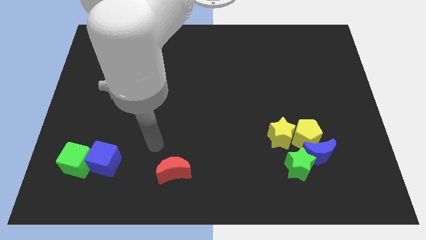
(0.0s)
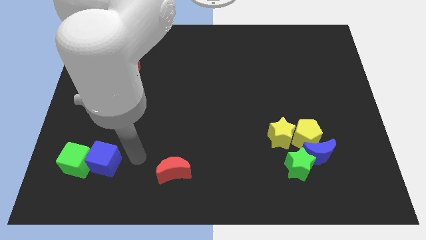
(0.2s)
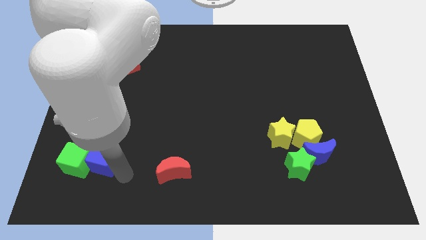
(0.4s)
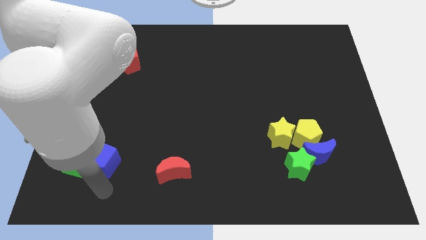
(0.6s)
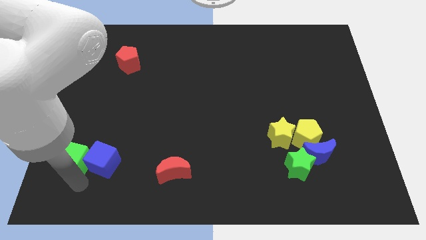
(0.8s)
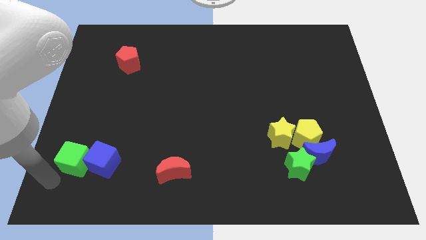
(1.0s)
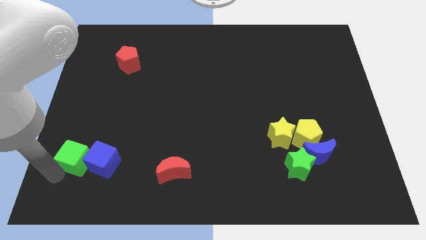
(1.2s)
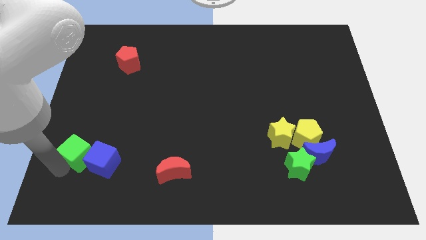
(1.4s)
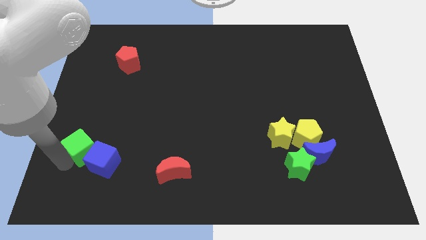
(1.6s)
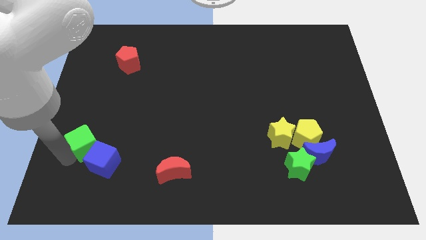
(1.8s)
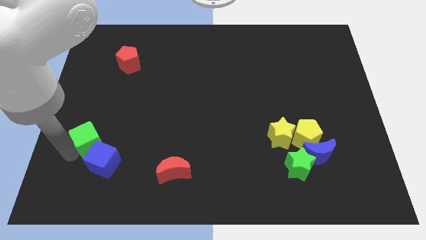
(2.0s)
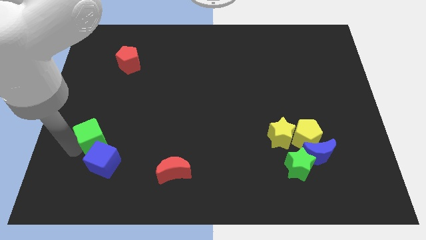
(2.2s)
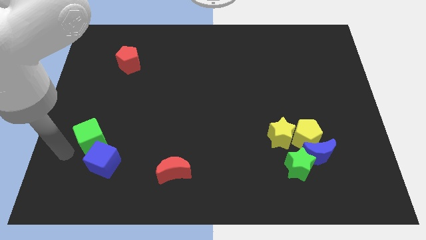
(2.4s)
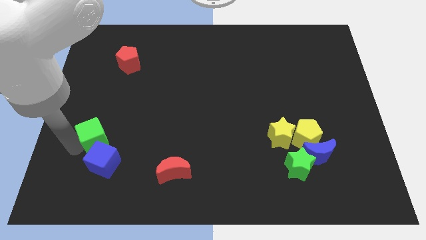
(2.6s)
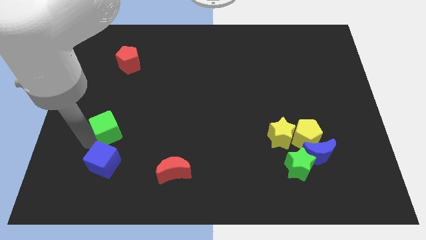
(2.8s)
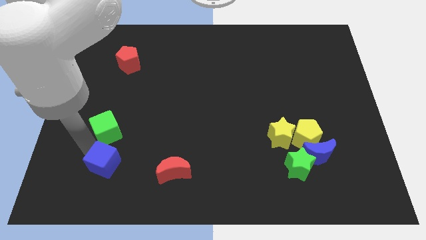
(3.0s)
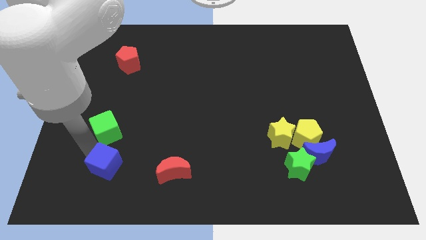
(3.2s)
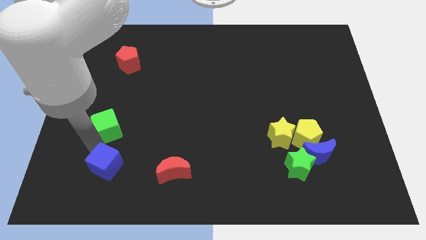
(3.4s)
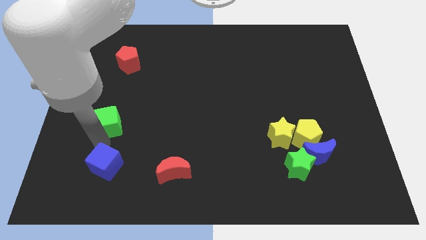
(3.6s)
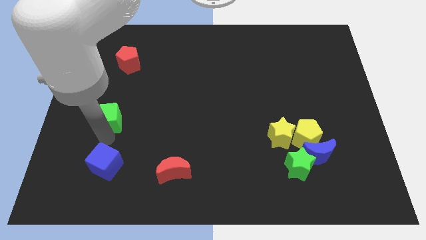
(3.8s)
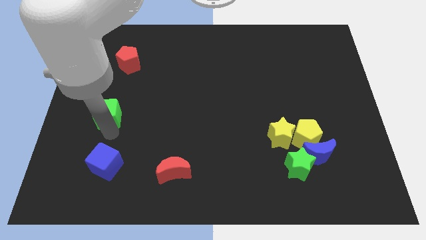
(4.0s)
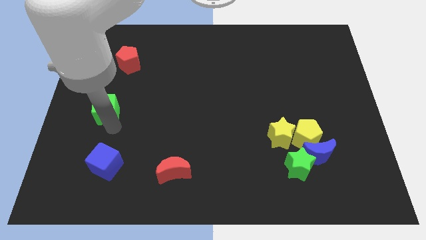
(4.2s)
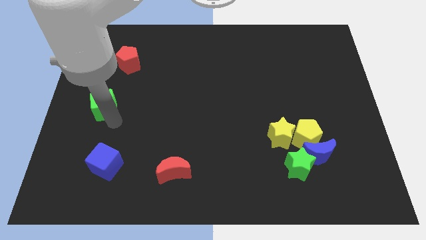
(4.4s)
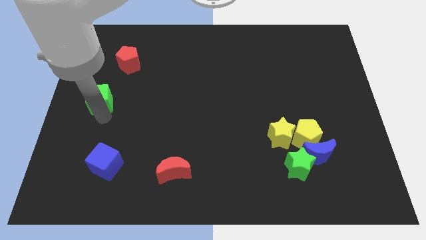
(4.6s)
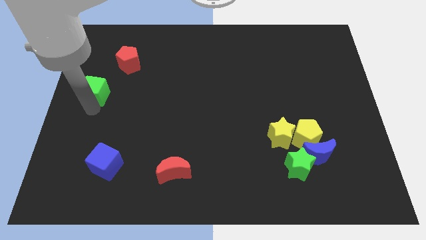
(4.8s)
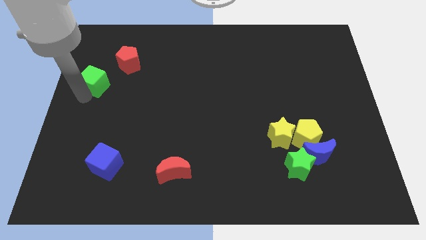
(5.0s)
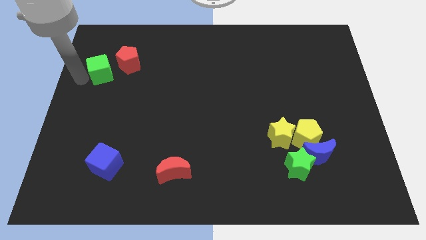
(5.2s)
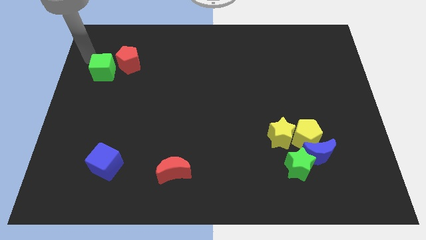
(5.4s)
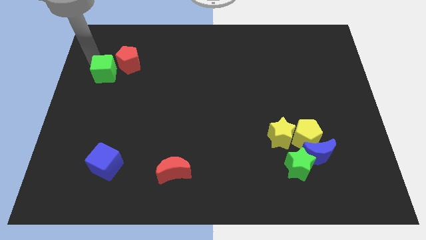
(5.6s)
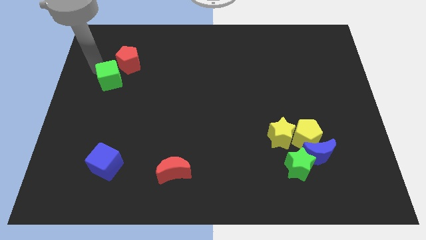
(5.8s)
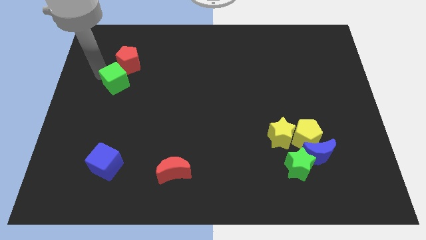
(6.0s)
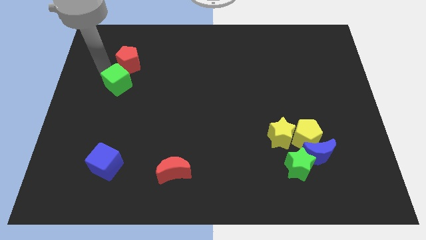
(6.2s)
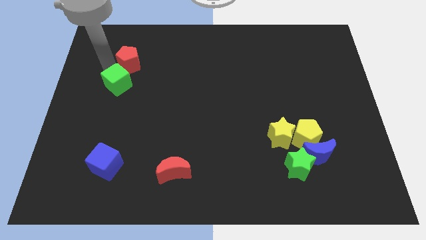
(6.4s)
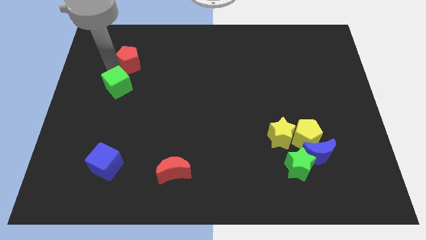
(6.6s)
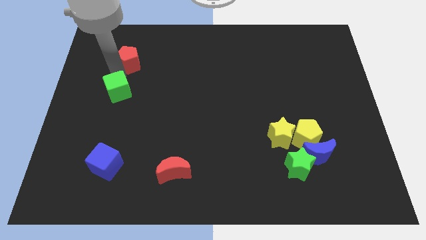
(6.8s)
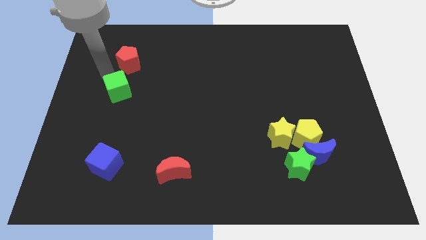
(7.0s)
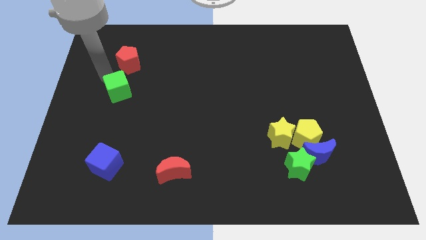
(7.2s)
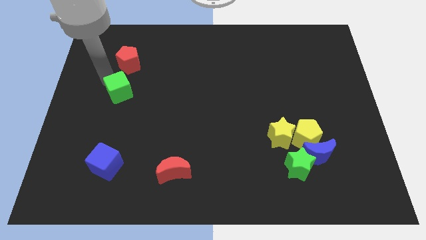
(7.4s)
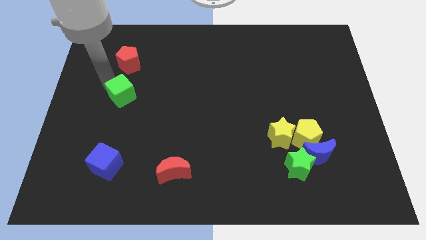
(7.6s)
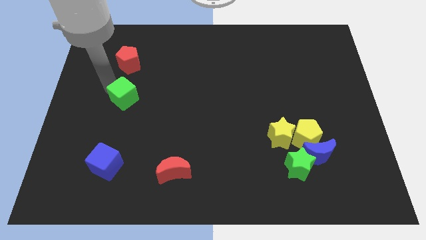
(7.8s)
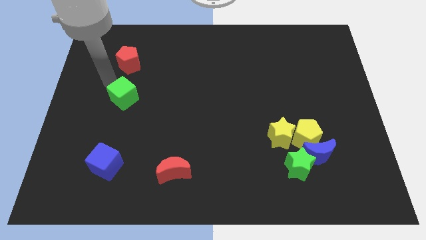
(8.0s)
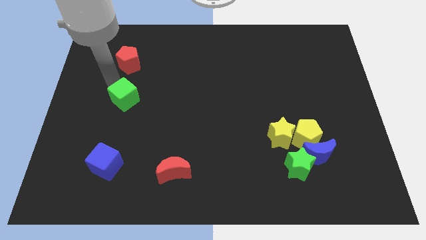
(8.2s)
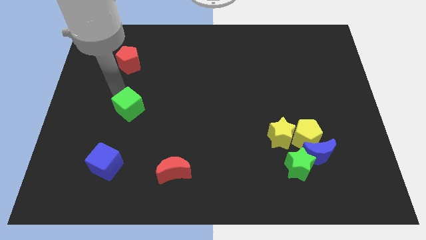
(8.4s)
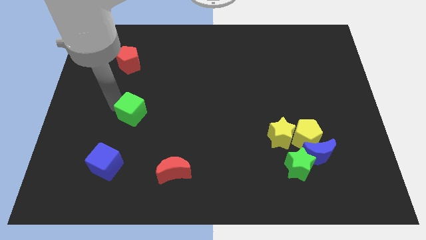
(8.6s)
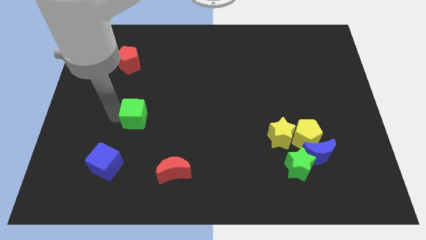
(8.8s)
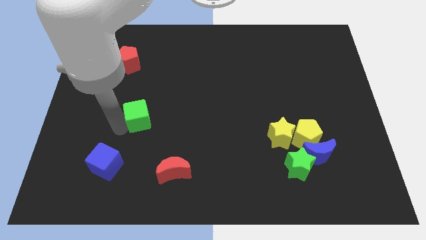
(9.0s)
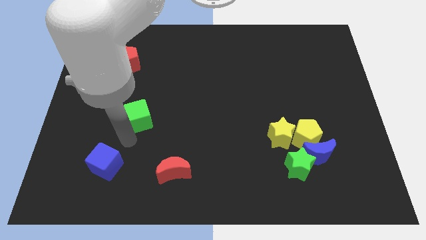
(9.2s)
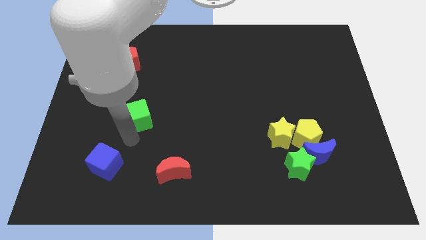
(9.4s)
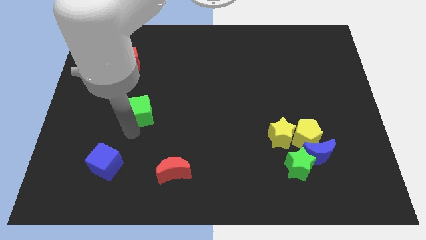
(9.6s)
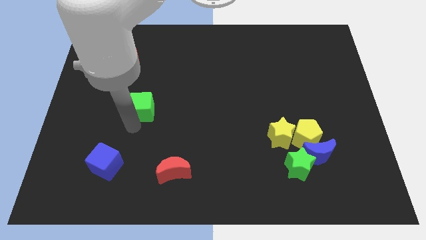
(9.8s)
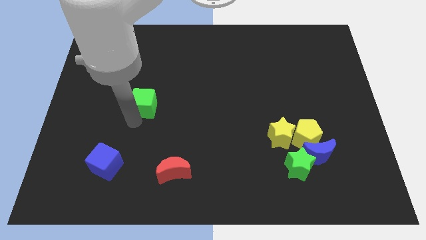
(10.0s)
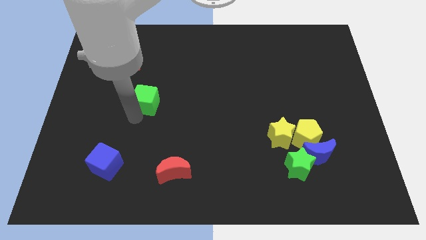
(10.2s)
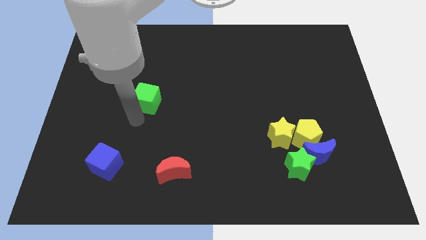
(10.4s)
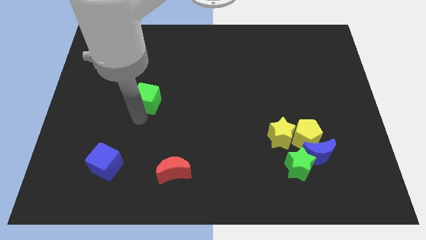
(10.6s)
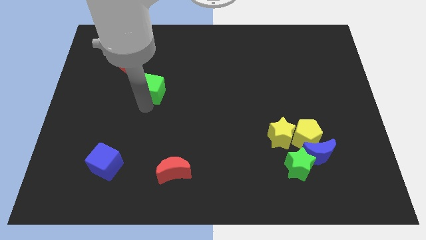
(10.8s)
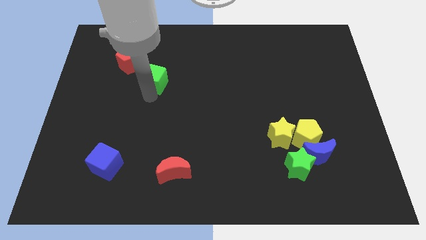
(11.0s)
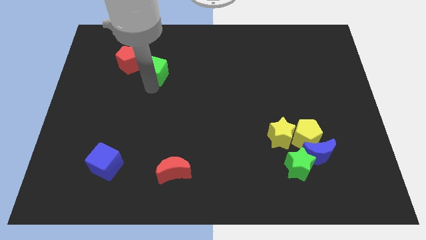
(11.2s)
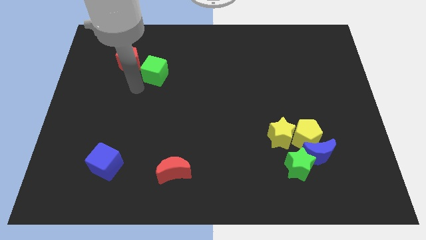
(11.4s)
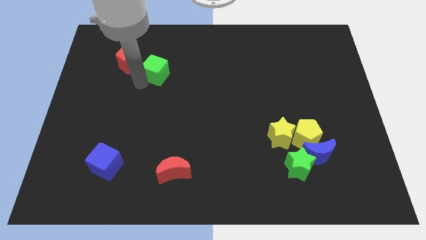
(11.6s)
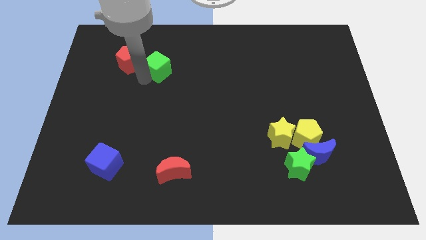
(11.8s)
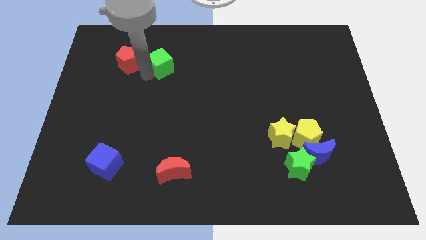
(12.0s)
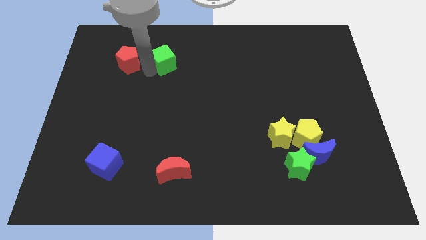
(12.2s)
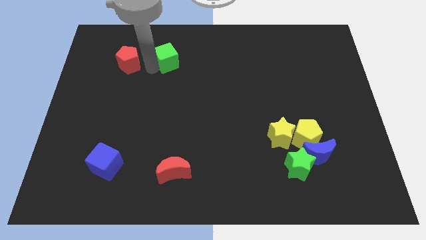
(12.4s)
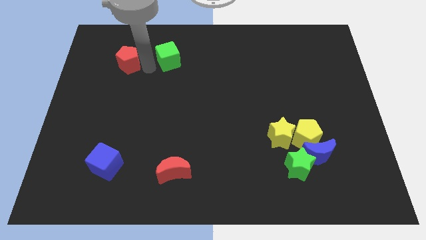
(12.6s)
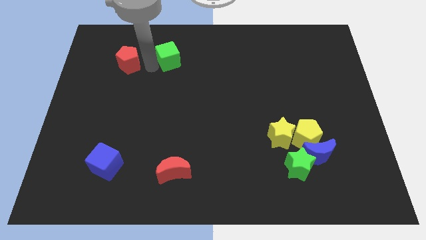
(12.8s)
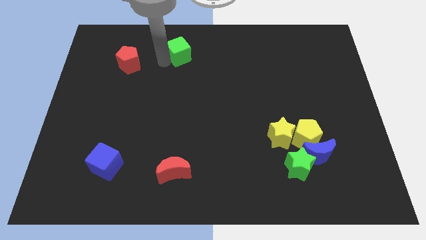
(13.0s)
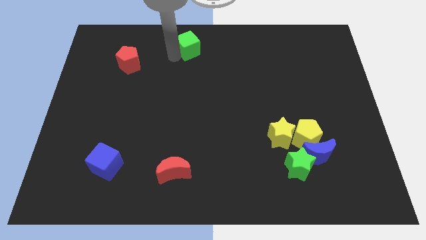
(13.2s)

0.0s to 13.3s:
push the green cube to the top
